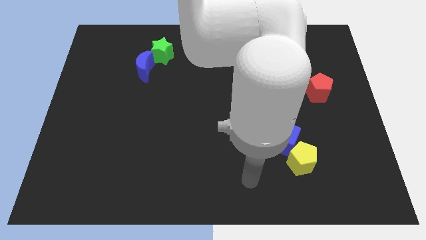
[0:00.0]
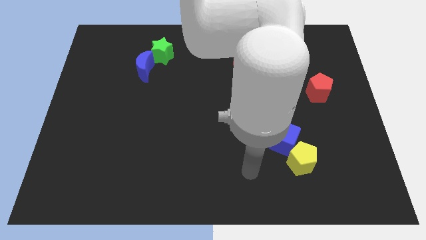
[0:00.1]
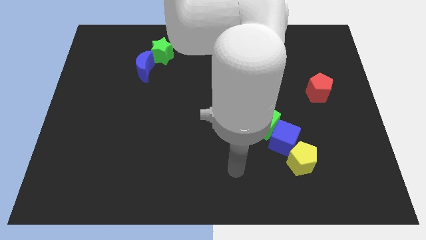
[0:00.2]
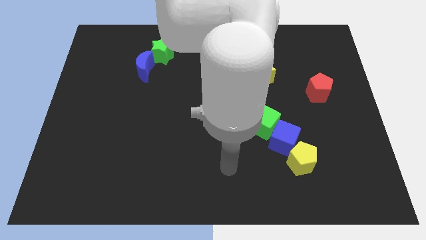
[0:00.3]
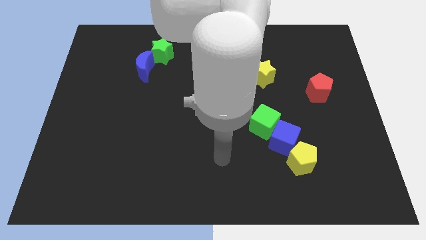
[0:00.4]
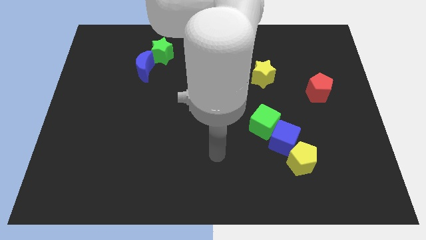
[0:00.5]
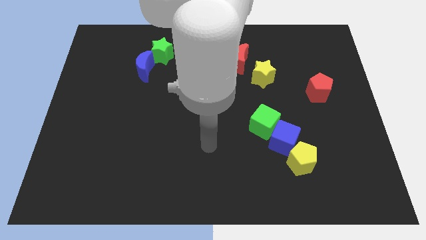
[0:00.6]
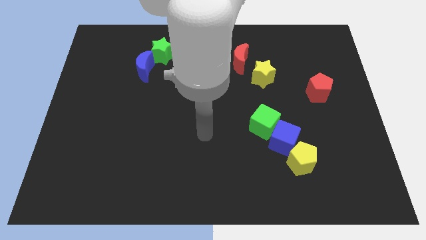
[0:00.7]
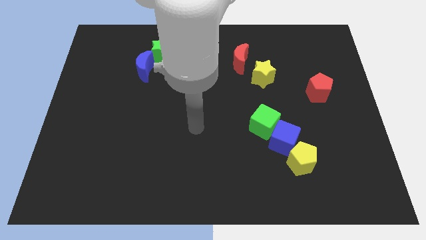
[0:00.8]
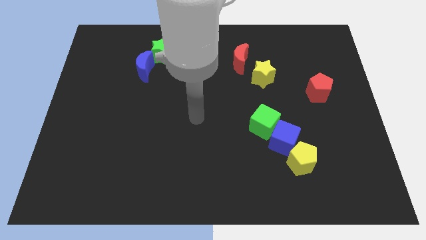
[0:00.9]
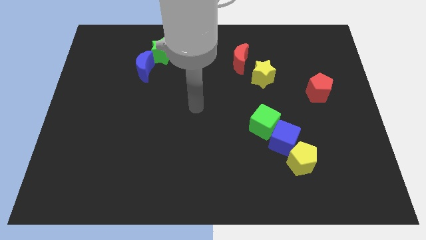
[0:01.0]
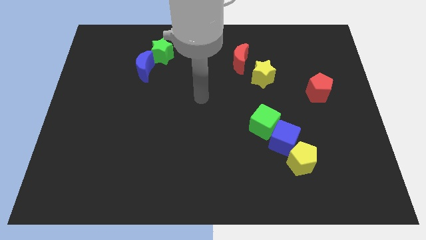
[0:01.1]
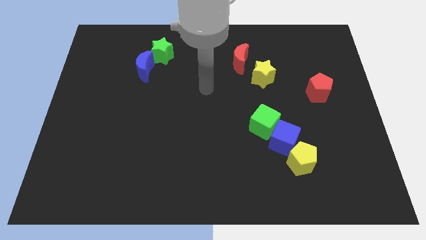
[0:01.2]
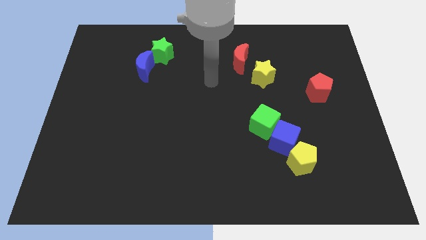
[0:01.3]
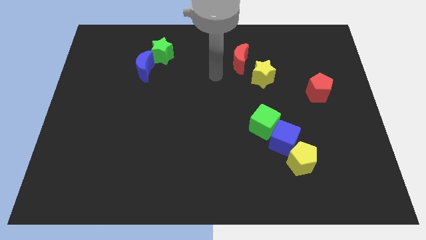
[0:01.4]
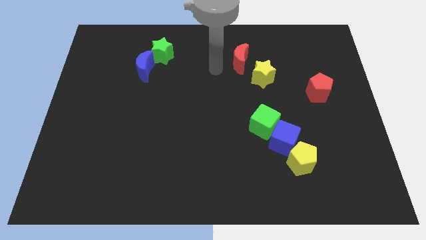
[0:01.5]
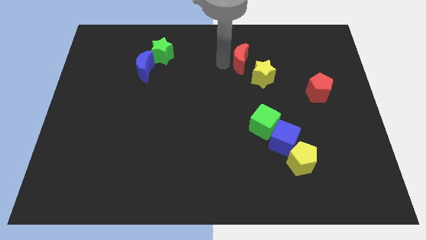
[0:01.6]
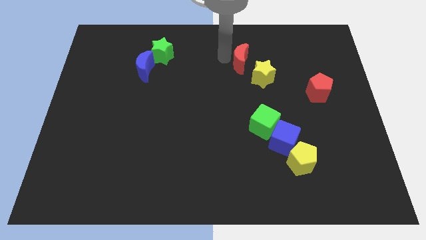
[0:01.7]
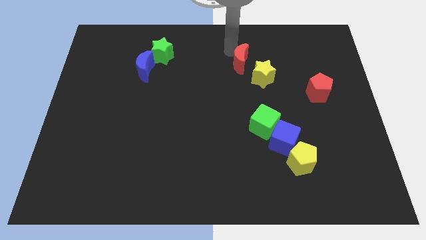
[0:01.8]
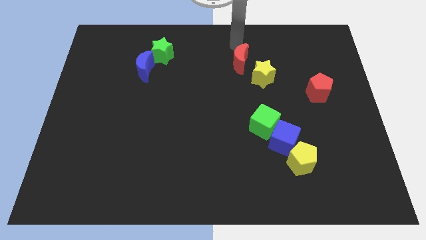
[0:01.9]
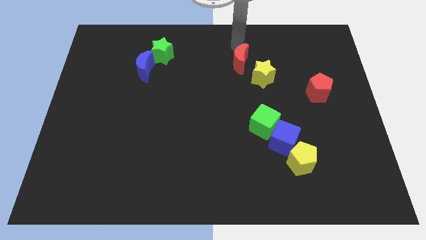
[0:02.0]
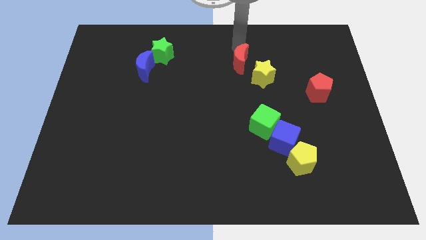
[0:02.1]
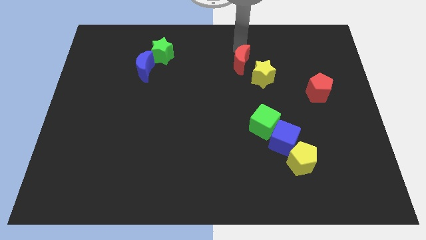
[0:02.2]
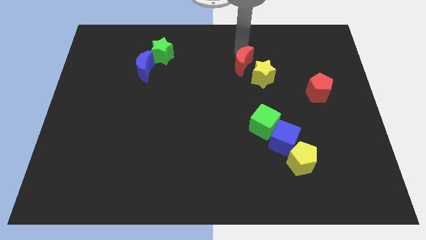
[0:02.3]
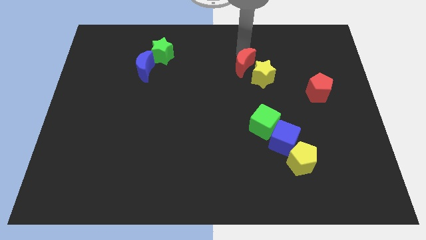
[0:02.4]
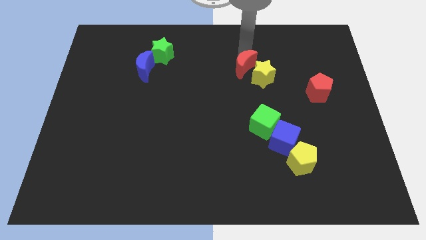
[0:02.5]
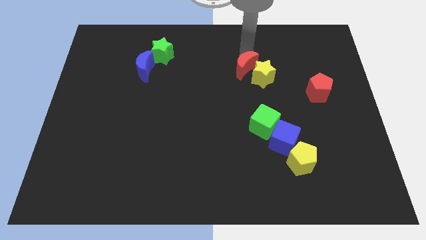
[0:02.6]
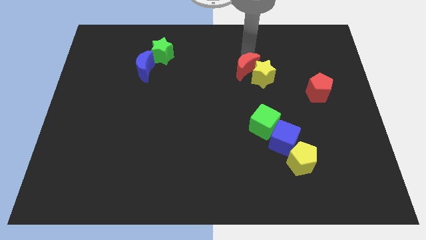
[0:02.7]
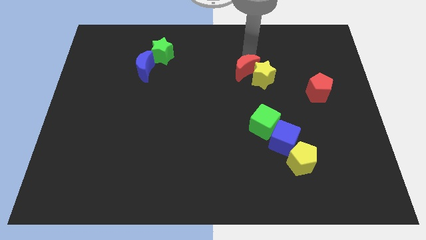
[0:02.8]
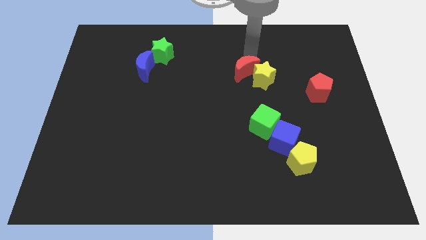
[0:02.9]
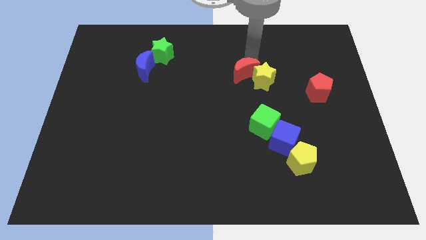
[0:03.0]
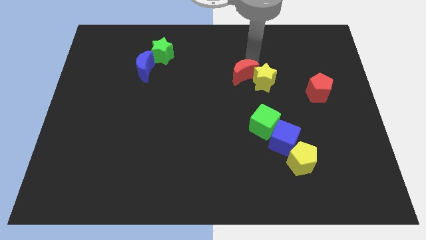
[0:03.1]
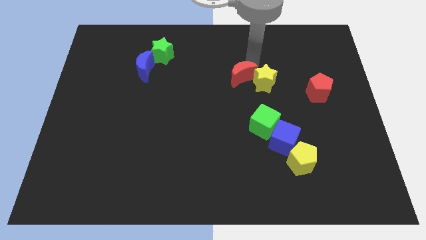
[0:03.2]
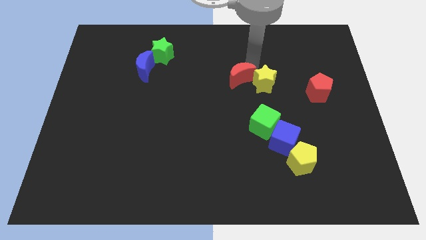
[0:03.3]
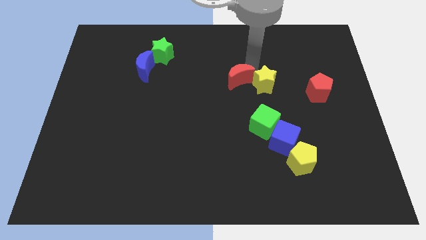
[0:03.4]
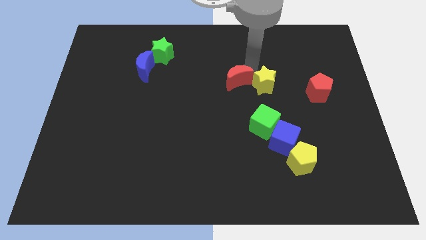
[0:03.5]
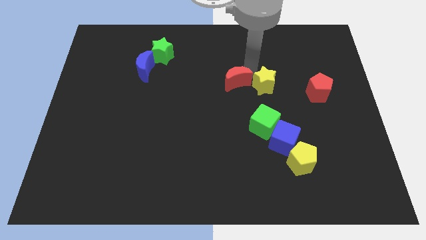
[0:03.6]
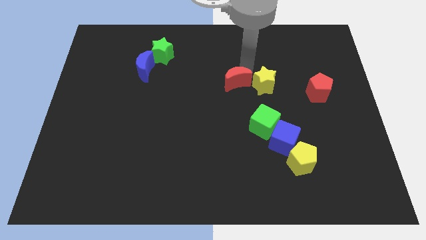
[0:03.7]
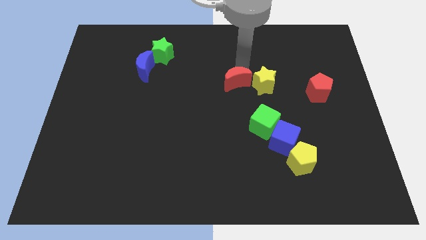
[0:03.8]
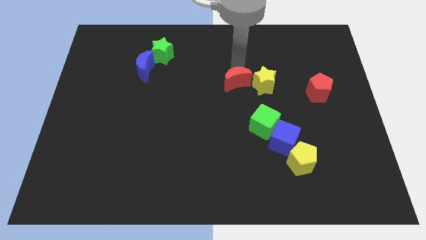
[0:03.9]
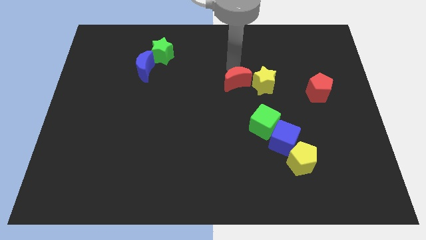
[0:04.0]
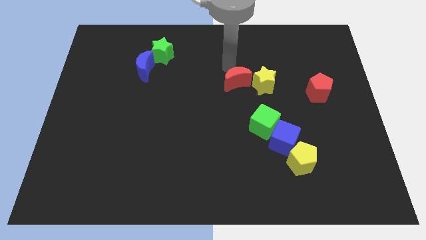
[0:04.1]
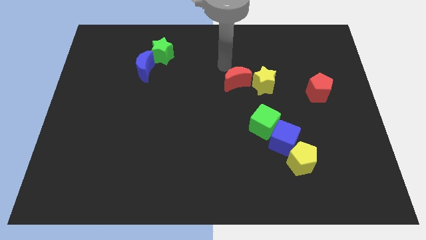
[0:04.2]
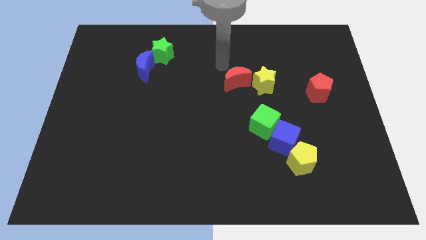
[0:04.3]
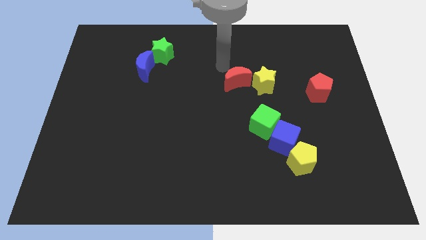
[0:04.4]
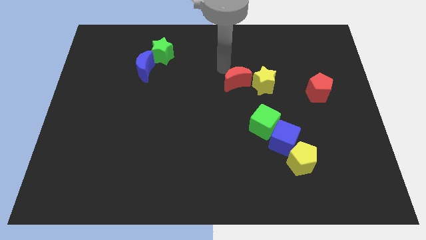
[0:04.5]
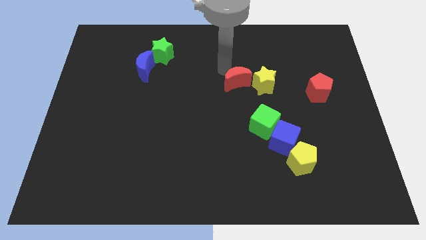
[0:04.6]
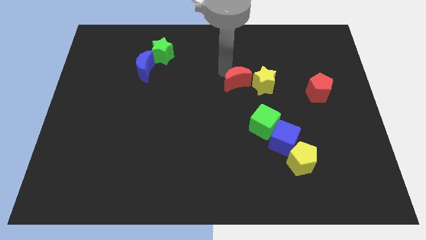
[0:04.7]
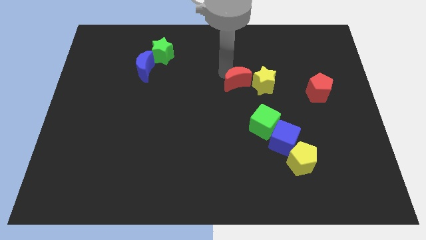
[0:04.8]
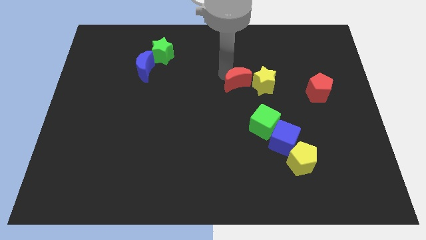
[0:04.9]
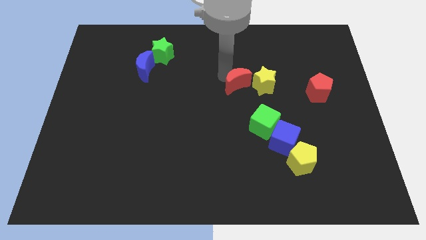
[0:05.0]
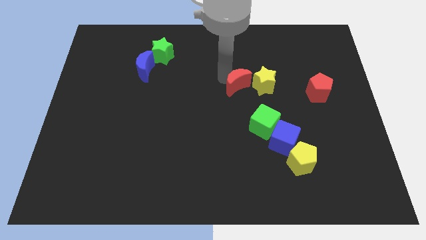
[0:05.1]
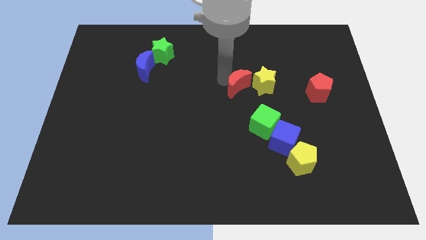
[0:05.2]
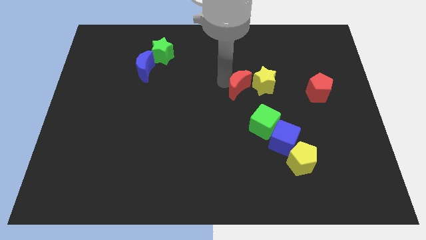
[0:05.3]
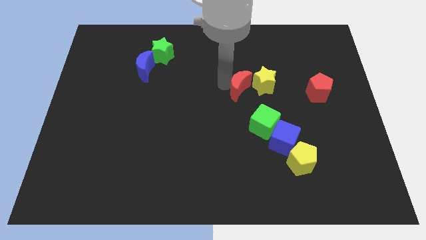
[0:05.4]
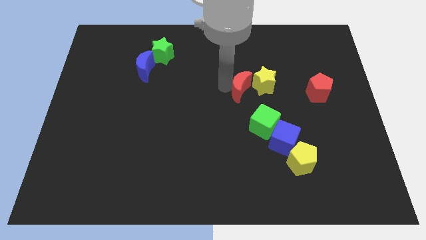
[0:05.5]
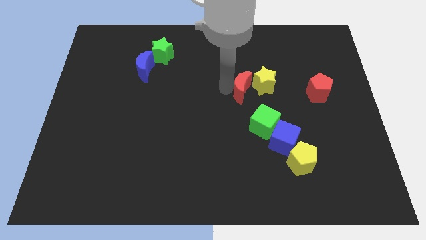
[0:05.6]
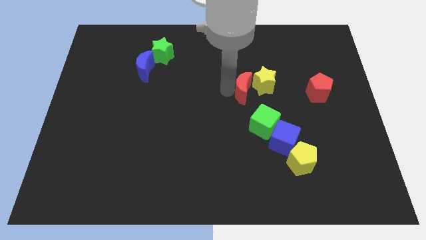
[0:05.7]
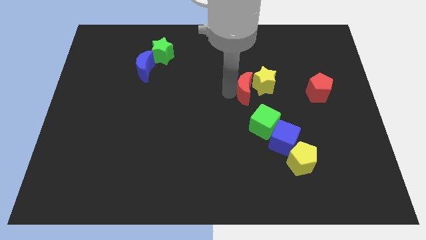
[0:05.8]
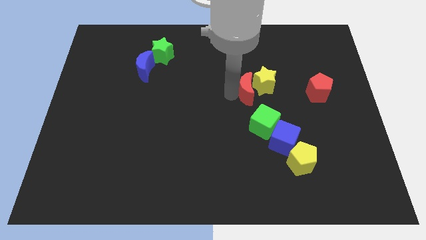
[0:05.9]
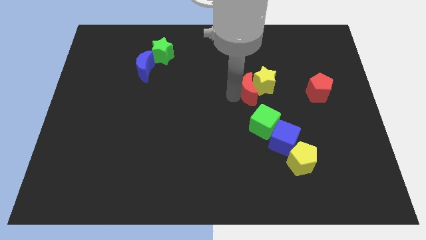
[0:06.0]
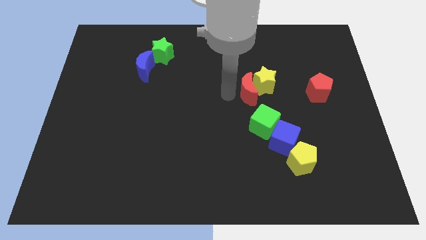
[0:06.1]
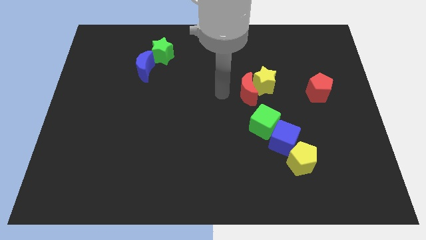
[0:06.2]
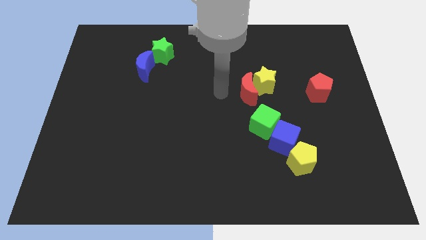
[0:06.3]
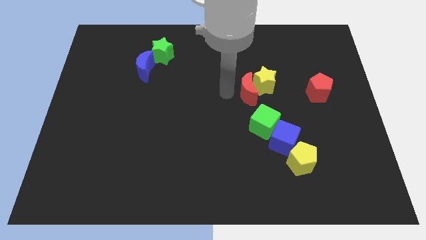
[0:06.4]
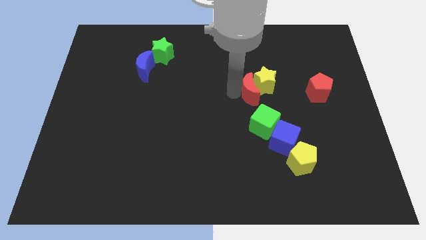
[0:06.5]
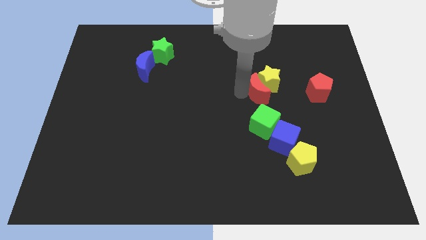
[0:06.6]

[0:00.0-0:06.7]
move the red moon to the left of the red pentagon

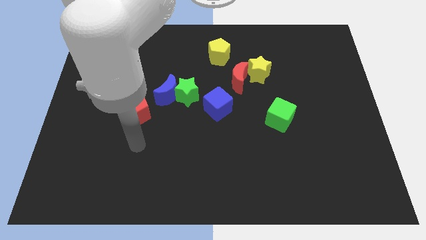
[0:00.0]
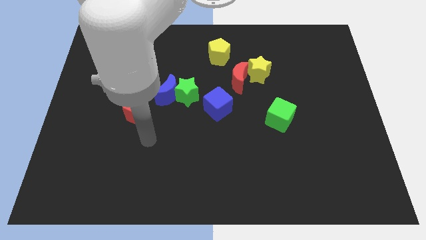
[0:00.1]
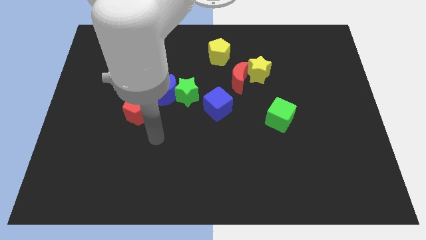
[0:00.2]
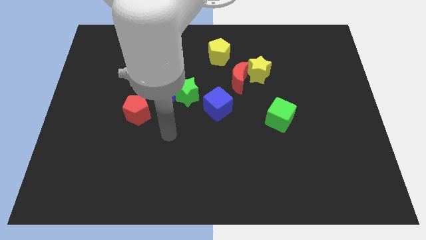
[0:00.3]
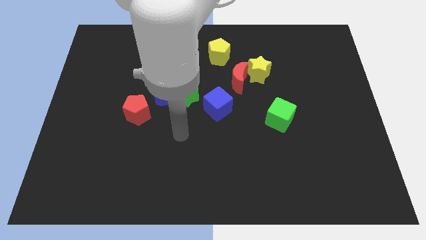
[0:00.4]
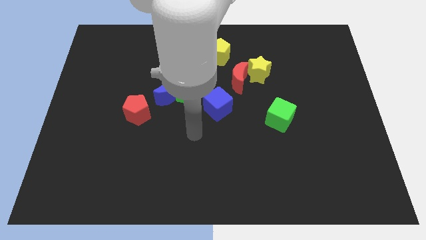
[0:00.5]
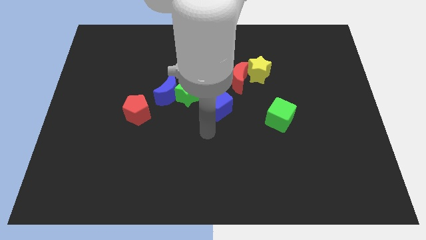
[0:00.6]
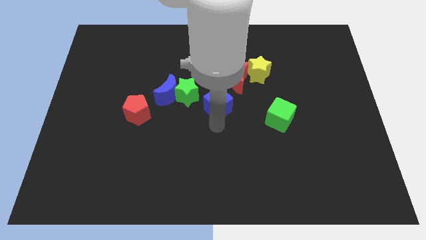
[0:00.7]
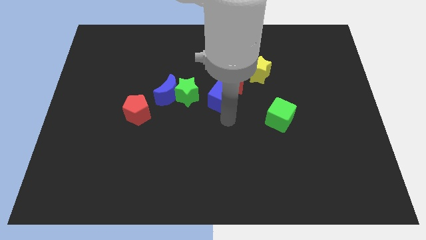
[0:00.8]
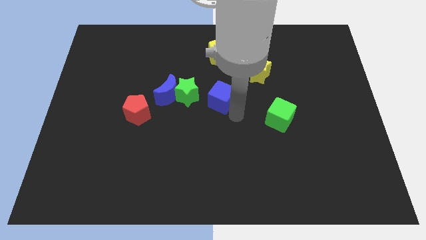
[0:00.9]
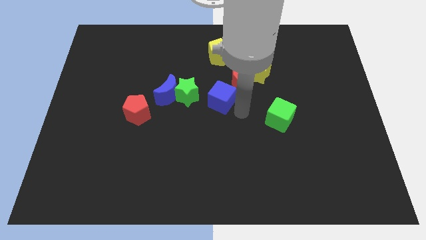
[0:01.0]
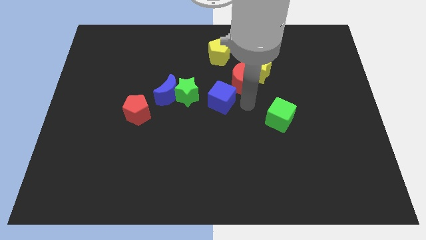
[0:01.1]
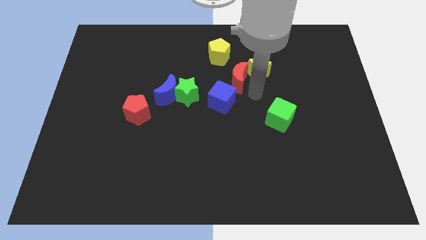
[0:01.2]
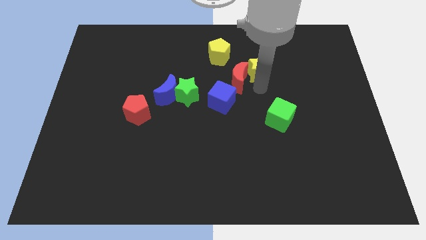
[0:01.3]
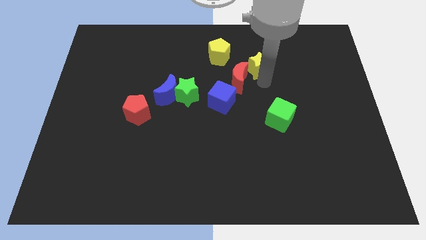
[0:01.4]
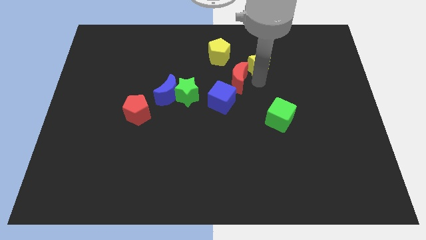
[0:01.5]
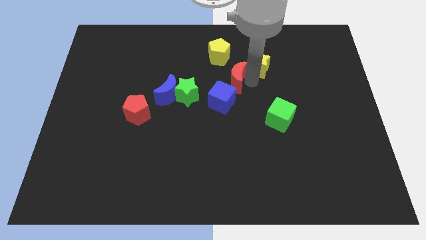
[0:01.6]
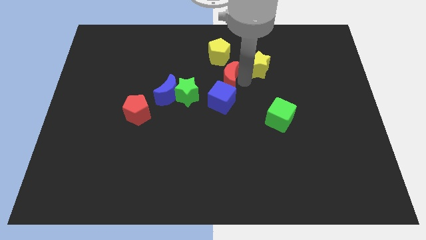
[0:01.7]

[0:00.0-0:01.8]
slide the red moon to the top right of the green star
